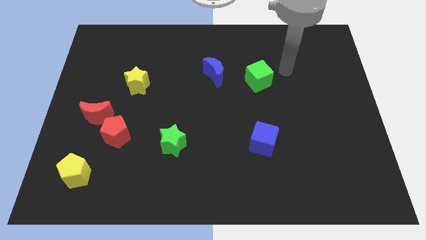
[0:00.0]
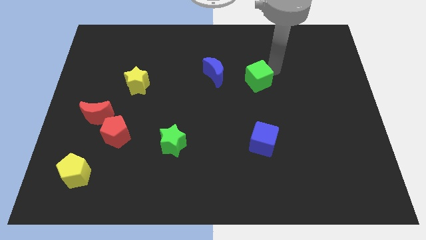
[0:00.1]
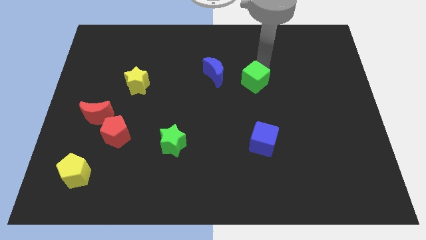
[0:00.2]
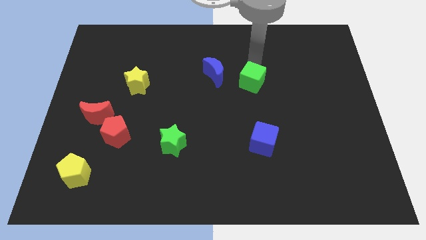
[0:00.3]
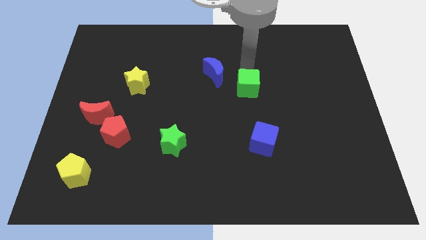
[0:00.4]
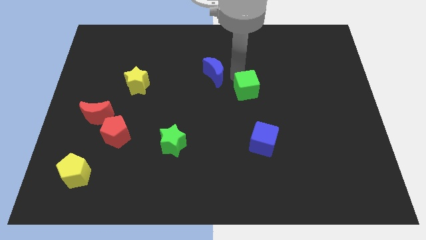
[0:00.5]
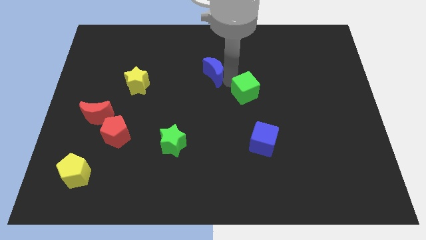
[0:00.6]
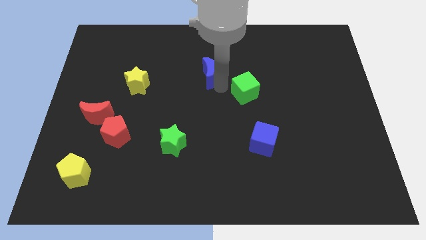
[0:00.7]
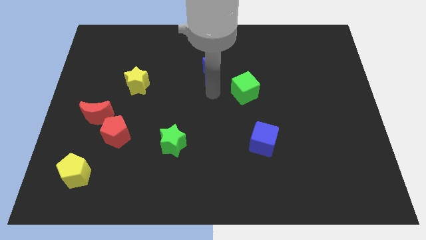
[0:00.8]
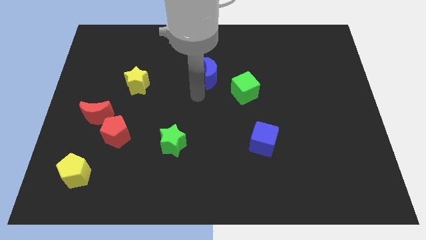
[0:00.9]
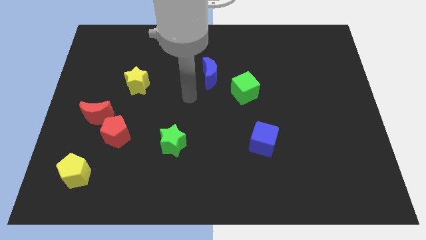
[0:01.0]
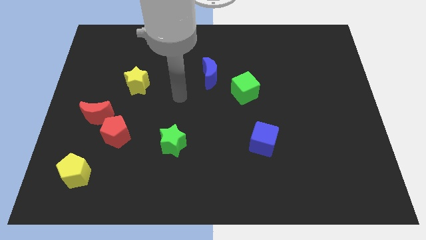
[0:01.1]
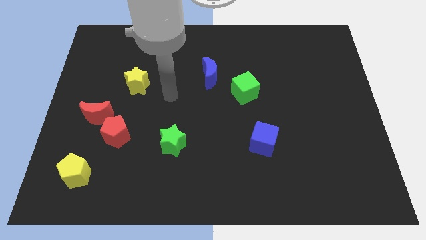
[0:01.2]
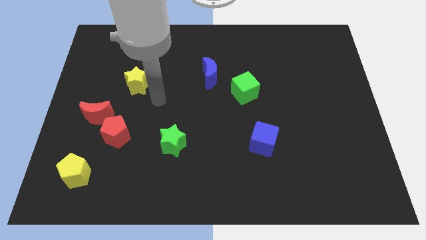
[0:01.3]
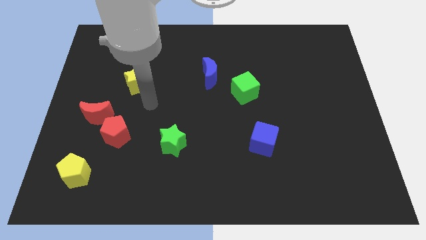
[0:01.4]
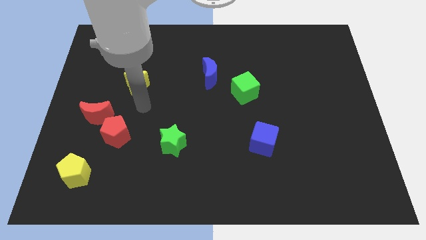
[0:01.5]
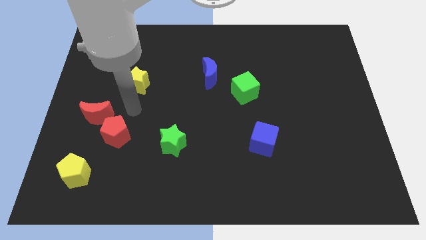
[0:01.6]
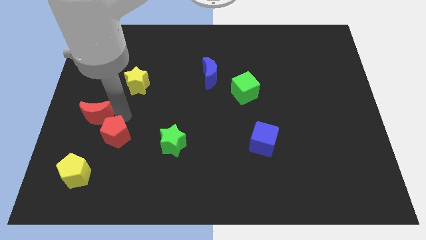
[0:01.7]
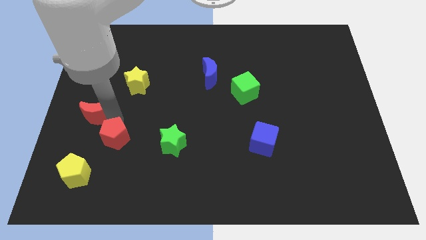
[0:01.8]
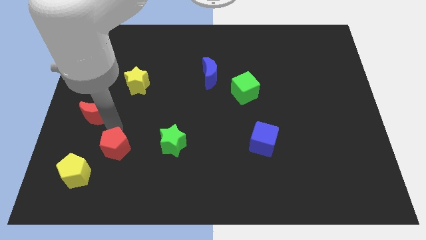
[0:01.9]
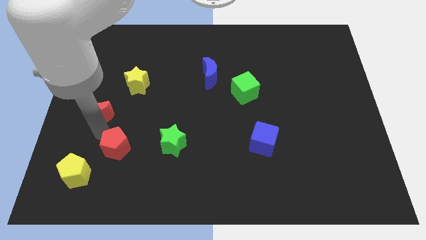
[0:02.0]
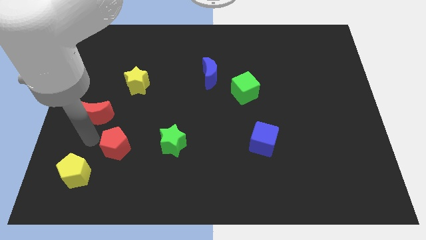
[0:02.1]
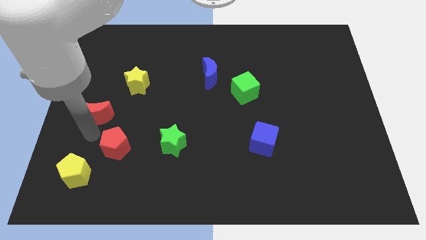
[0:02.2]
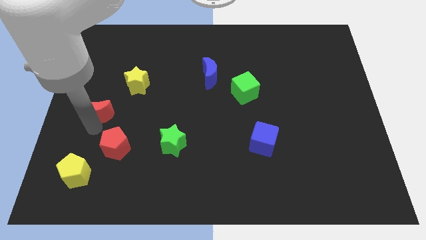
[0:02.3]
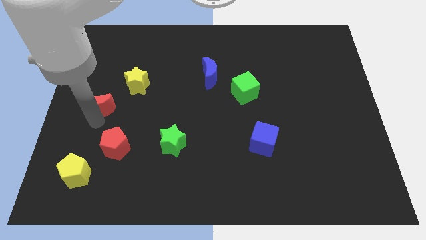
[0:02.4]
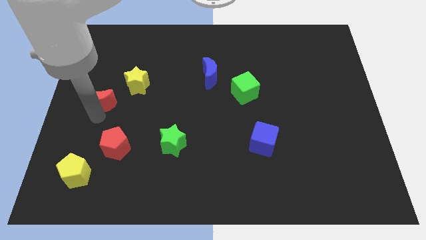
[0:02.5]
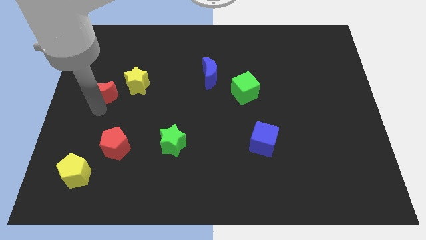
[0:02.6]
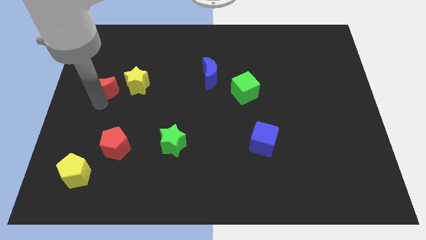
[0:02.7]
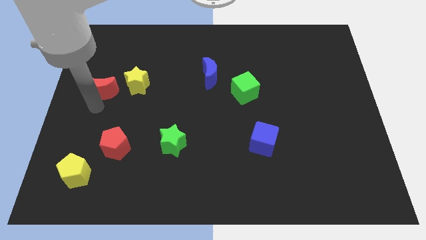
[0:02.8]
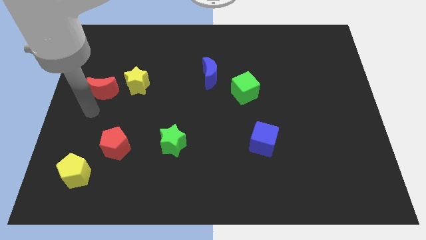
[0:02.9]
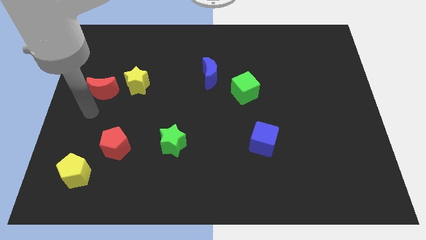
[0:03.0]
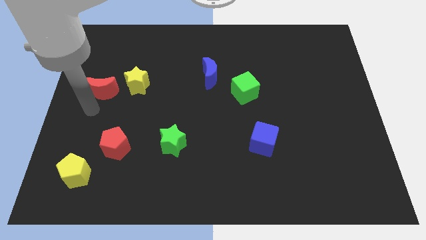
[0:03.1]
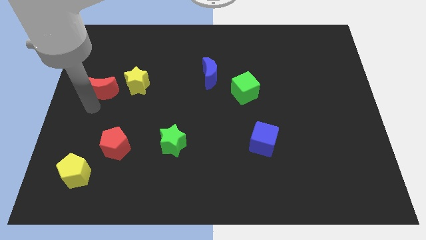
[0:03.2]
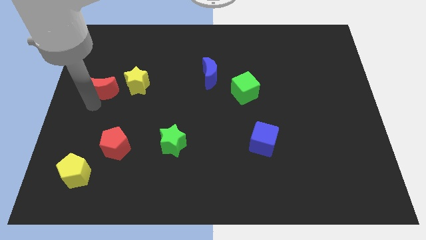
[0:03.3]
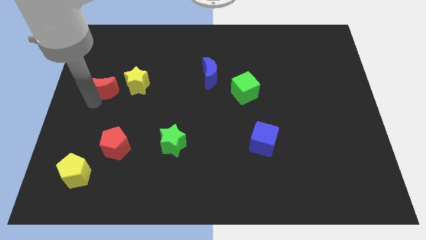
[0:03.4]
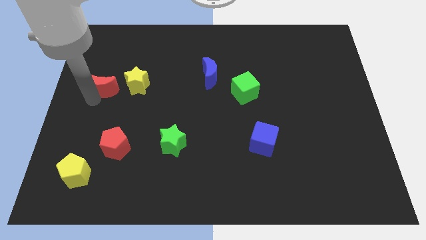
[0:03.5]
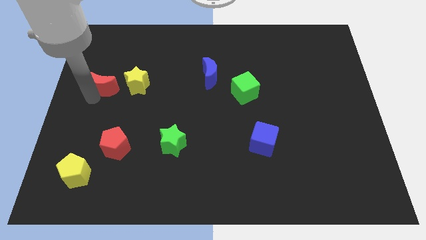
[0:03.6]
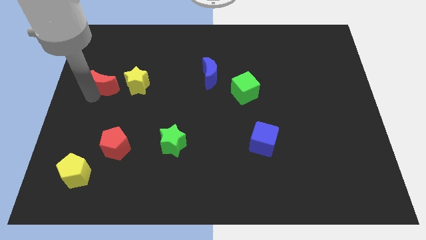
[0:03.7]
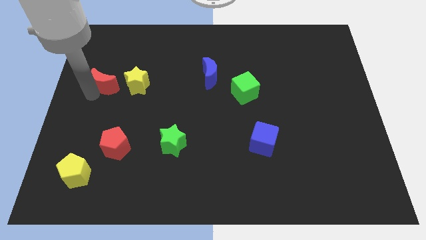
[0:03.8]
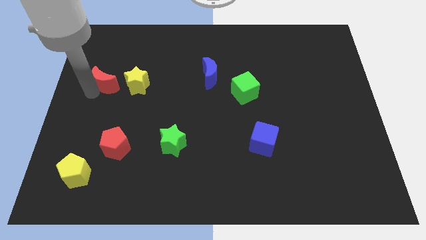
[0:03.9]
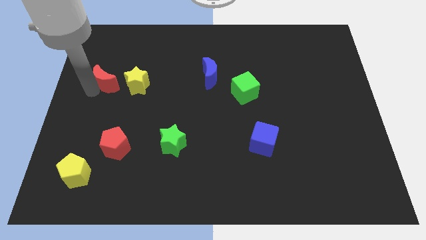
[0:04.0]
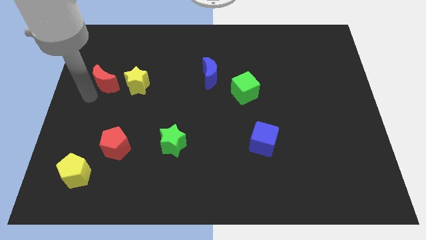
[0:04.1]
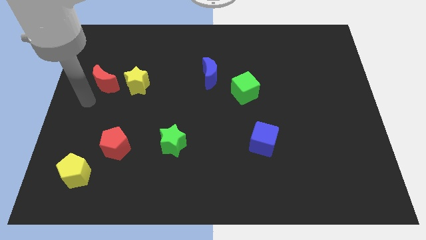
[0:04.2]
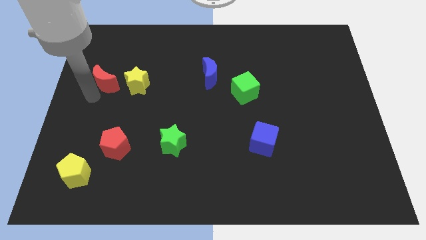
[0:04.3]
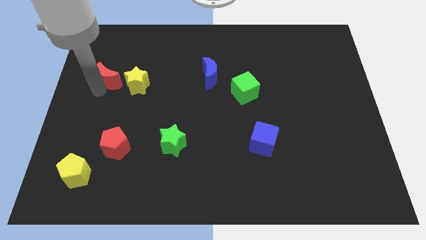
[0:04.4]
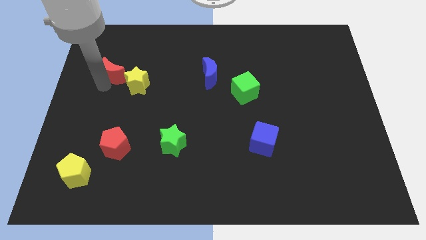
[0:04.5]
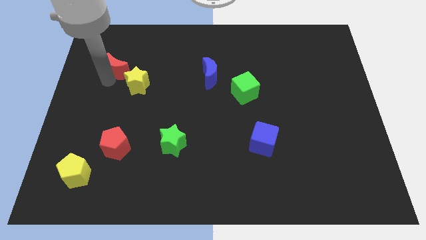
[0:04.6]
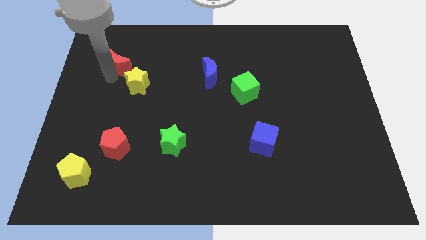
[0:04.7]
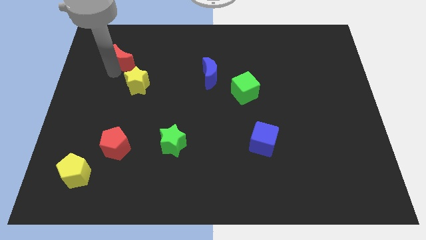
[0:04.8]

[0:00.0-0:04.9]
put the red moon to the top of the yellow star

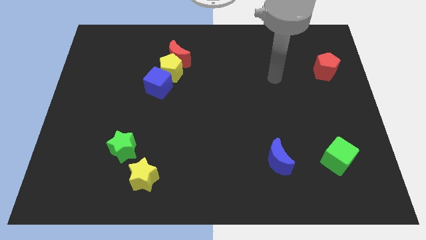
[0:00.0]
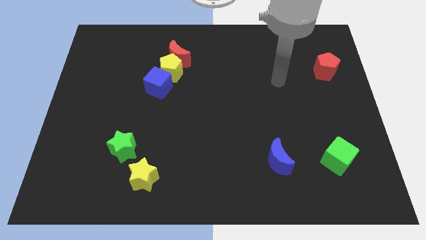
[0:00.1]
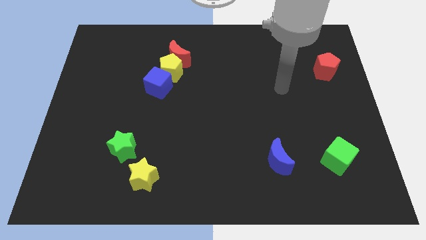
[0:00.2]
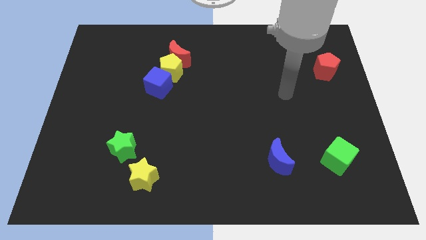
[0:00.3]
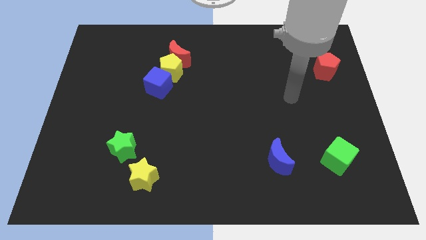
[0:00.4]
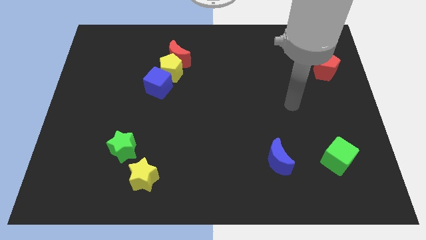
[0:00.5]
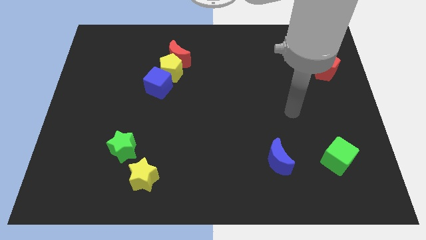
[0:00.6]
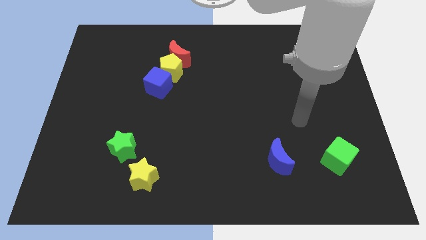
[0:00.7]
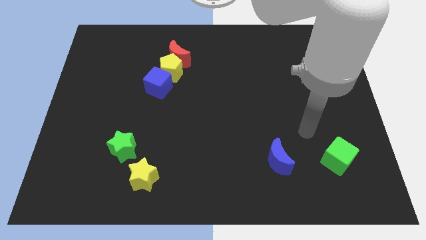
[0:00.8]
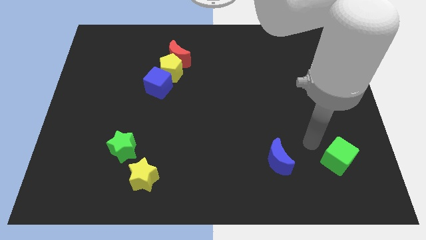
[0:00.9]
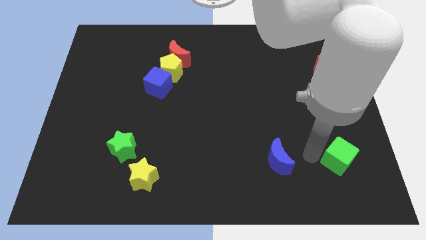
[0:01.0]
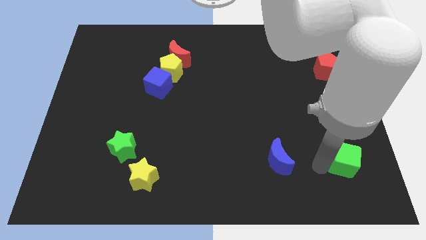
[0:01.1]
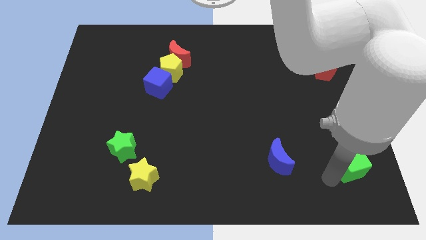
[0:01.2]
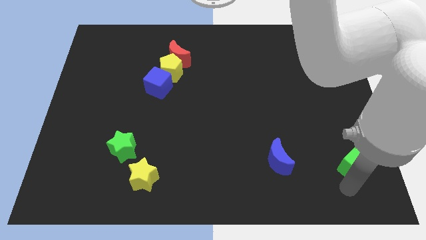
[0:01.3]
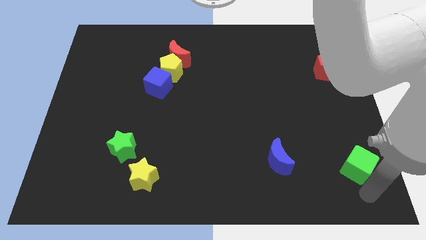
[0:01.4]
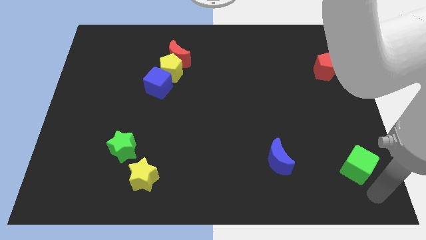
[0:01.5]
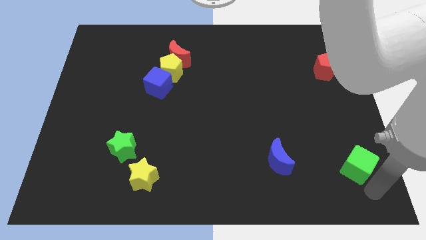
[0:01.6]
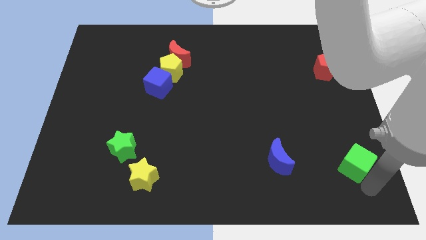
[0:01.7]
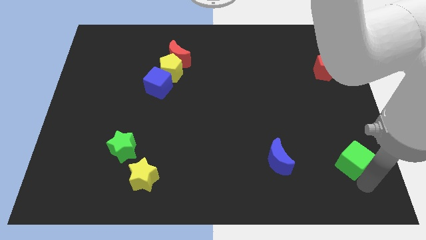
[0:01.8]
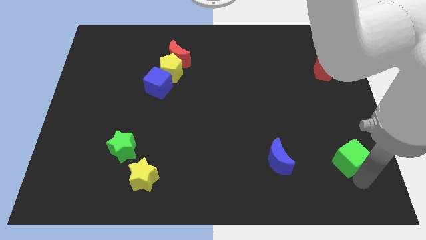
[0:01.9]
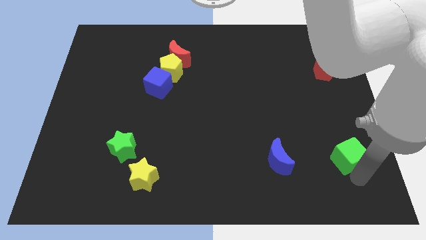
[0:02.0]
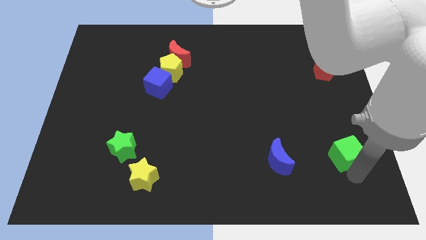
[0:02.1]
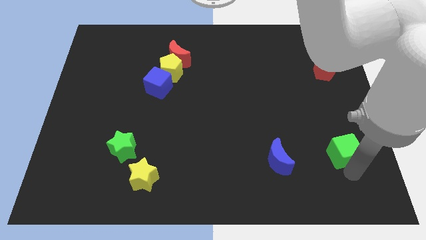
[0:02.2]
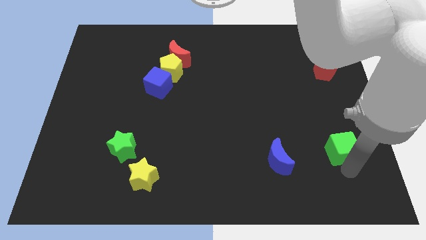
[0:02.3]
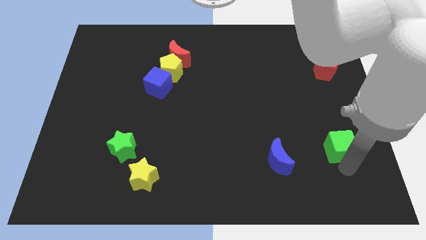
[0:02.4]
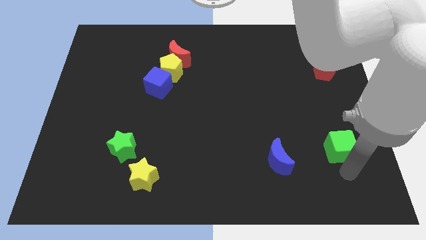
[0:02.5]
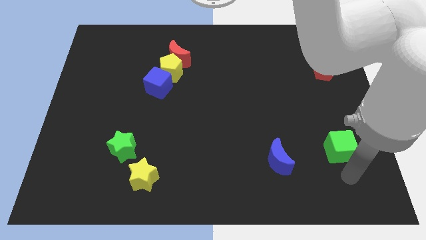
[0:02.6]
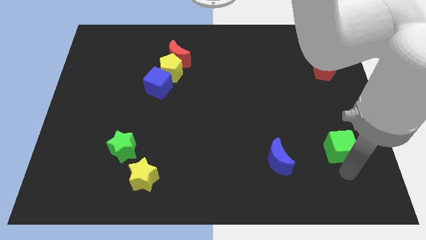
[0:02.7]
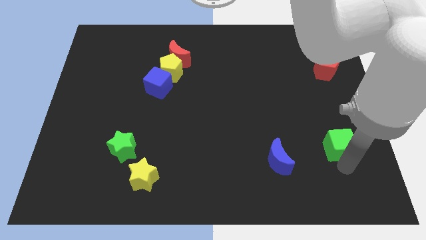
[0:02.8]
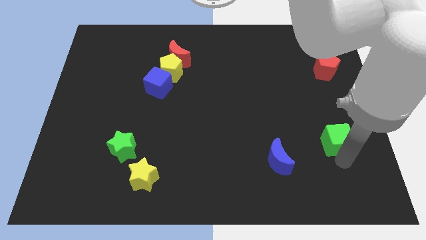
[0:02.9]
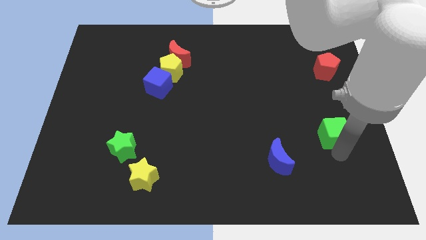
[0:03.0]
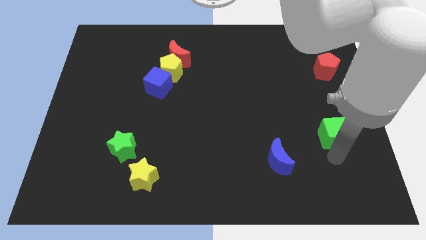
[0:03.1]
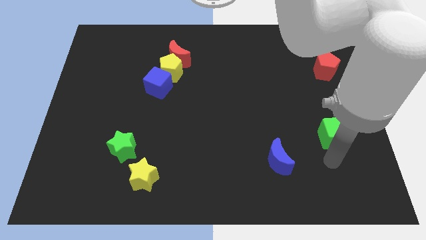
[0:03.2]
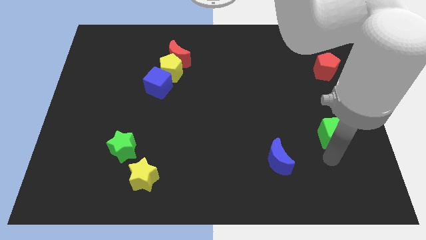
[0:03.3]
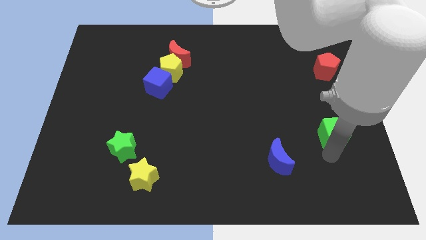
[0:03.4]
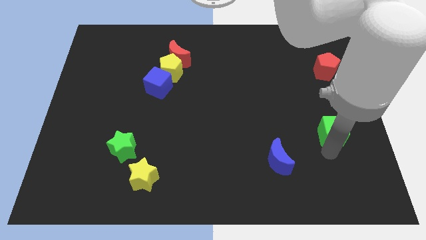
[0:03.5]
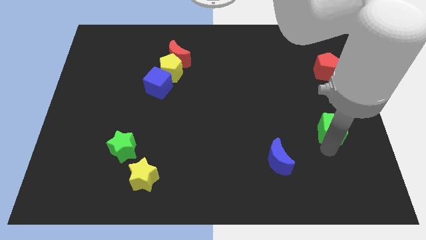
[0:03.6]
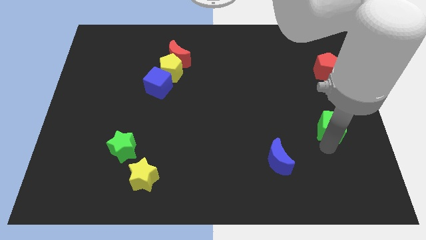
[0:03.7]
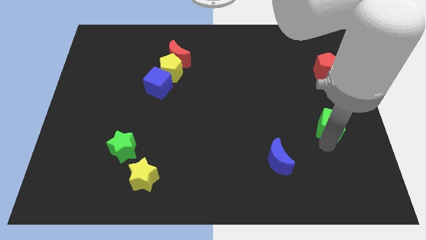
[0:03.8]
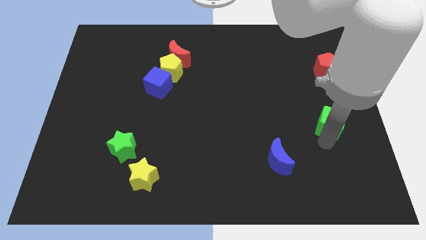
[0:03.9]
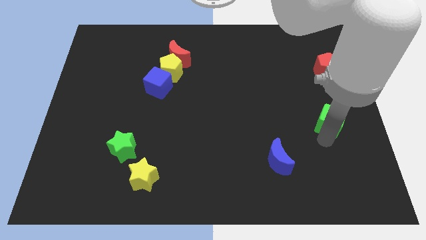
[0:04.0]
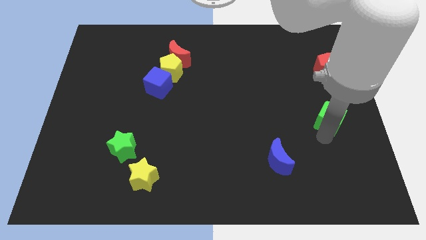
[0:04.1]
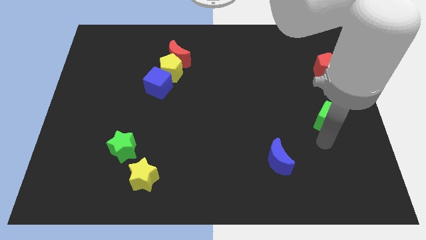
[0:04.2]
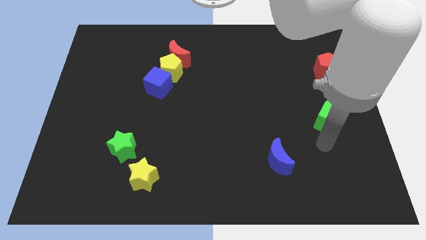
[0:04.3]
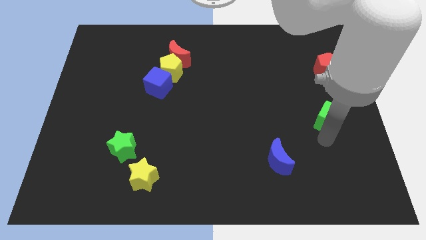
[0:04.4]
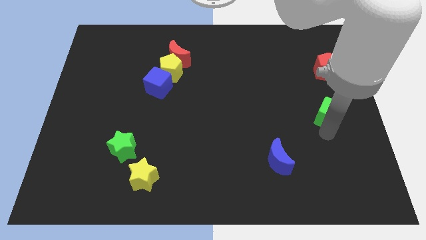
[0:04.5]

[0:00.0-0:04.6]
push the green cube below the red pentagon
